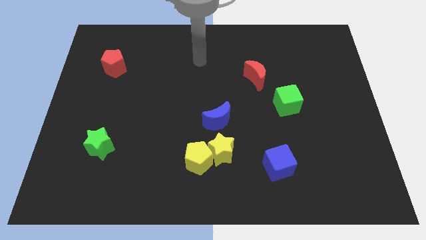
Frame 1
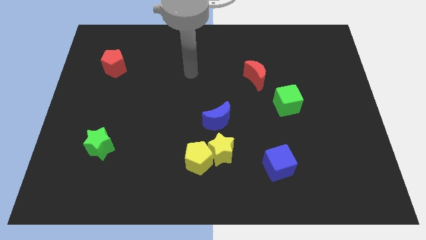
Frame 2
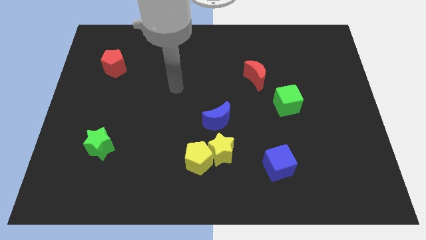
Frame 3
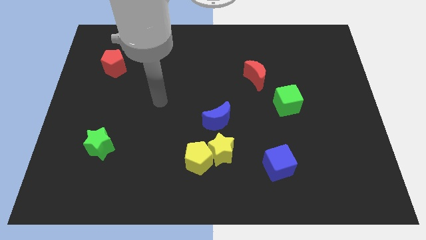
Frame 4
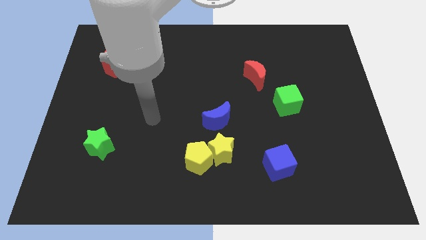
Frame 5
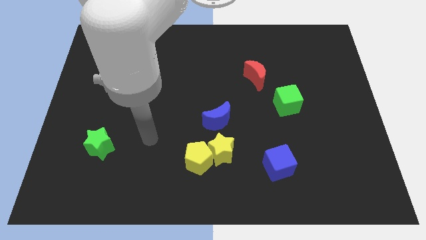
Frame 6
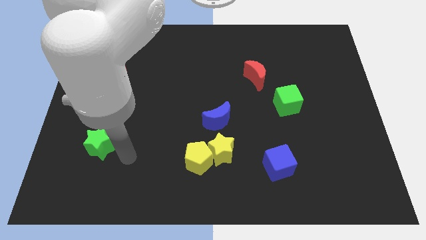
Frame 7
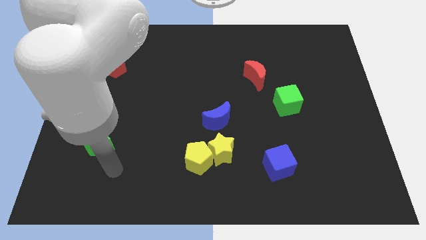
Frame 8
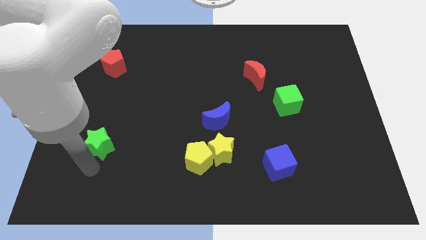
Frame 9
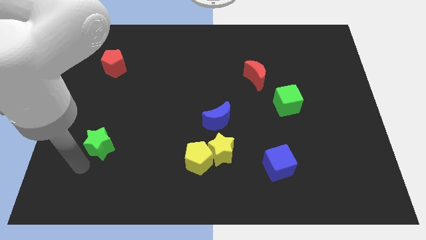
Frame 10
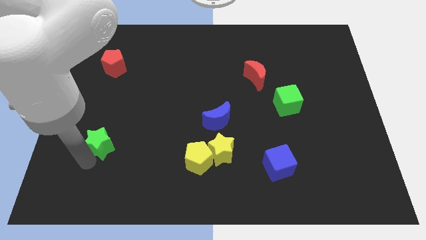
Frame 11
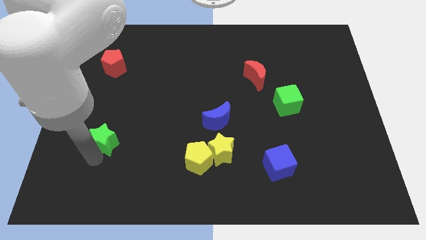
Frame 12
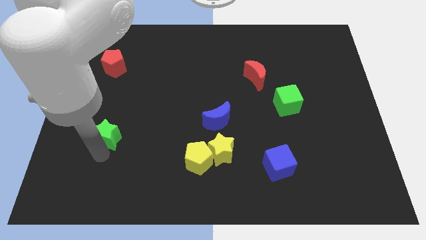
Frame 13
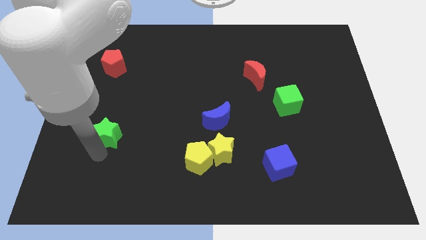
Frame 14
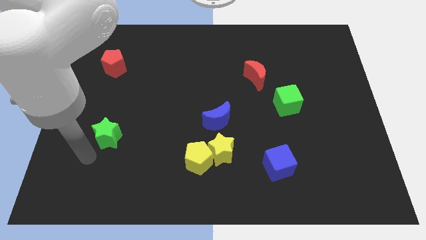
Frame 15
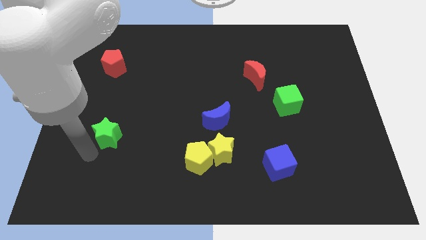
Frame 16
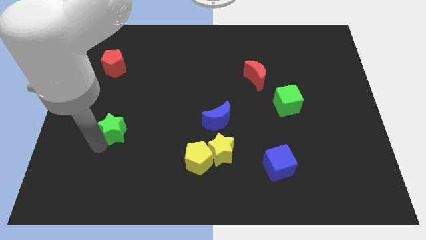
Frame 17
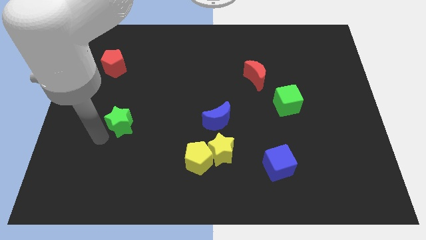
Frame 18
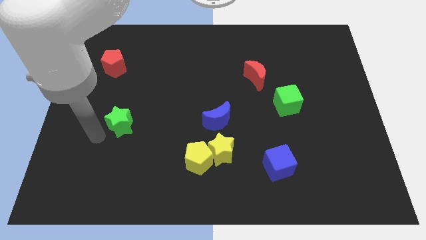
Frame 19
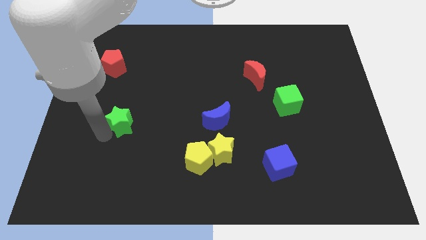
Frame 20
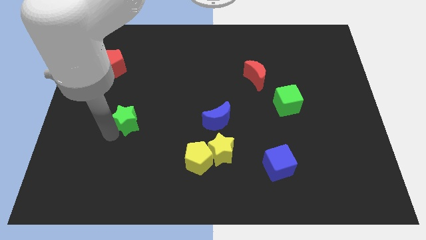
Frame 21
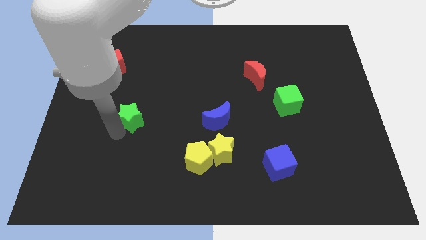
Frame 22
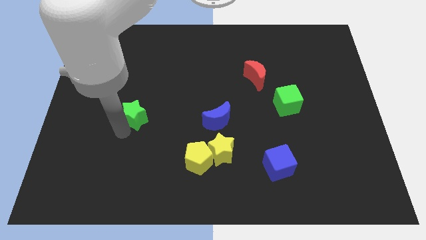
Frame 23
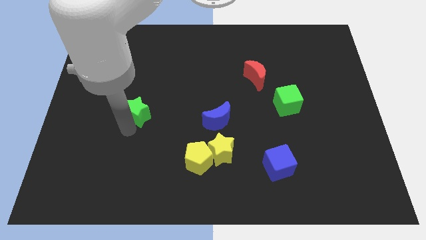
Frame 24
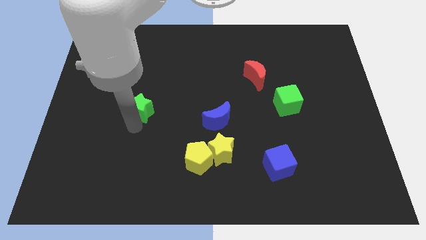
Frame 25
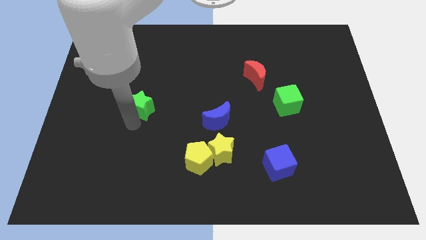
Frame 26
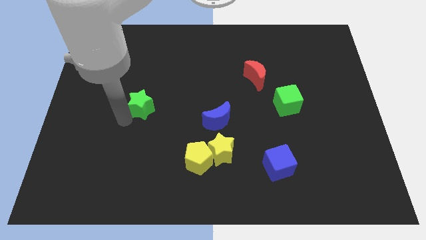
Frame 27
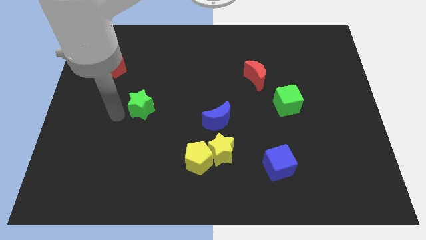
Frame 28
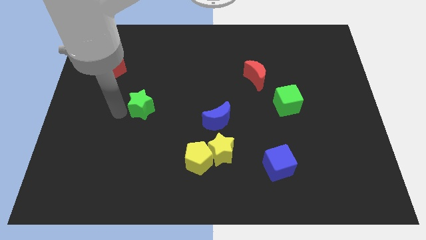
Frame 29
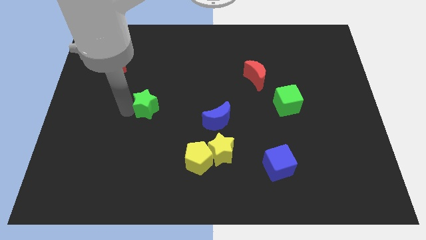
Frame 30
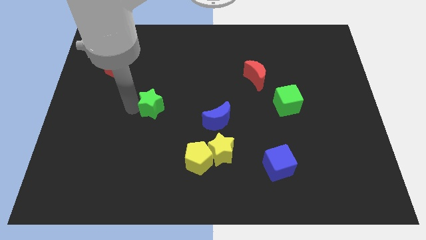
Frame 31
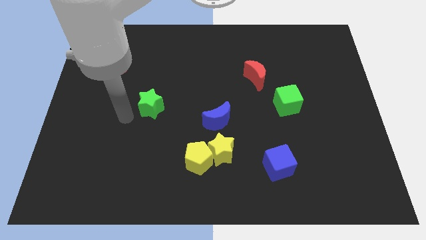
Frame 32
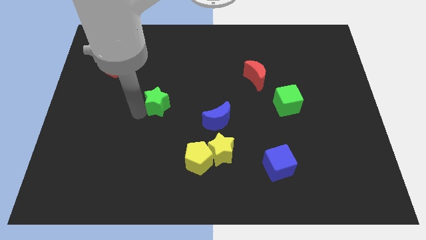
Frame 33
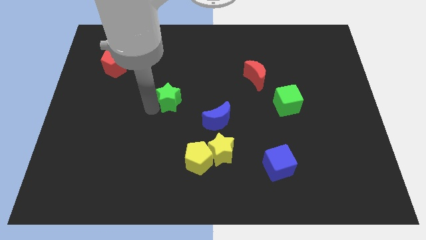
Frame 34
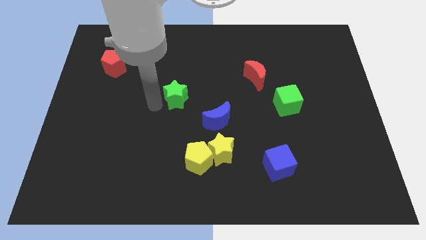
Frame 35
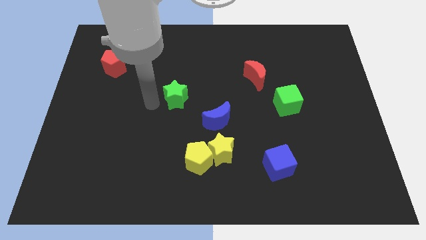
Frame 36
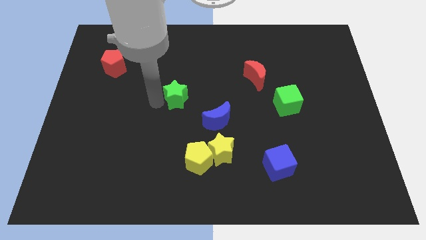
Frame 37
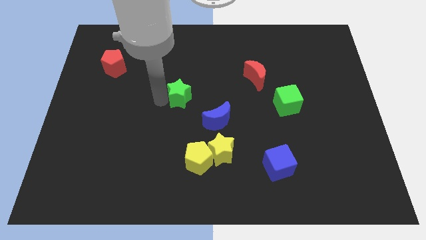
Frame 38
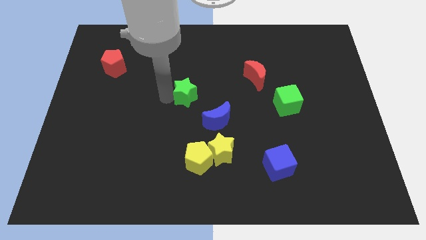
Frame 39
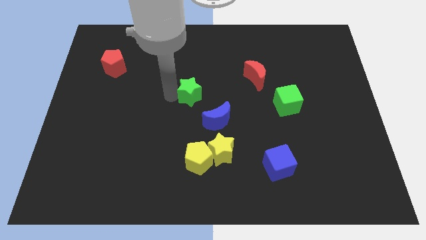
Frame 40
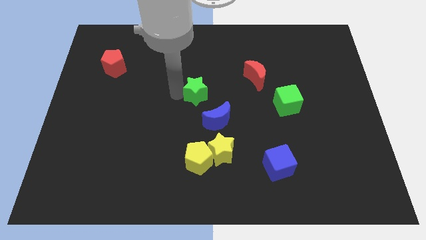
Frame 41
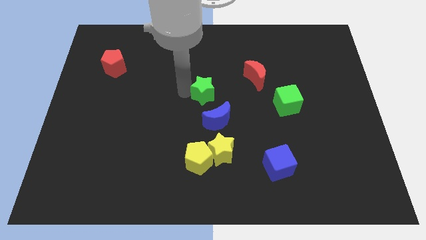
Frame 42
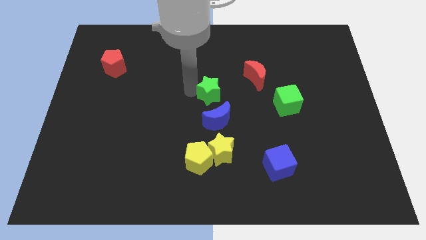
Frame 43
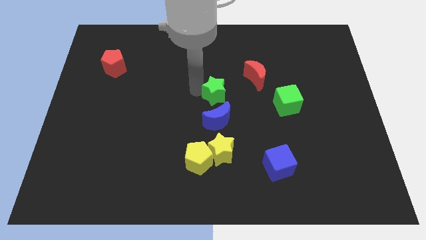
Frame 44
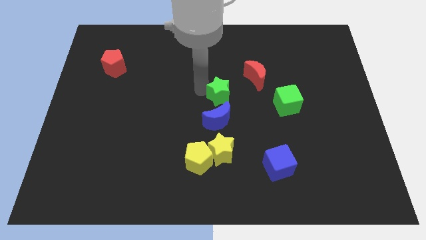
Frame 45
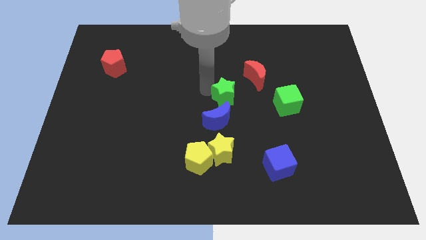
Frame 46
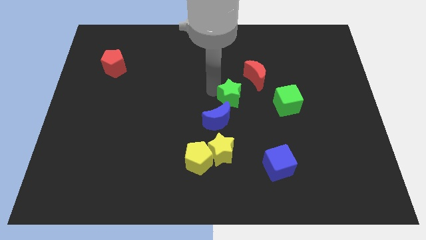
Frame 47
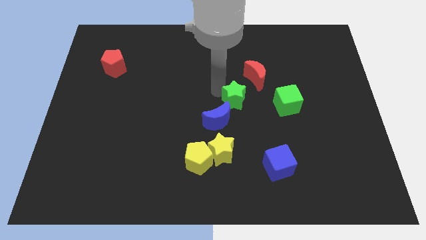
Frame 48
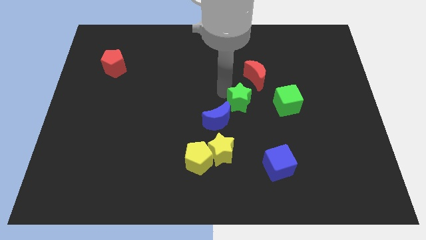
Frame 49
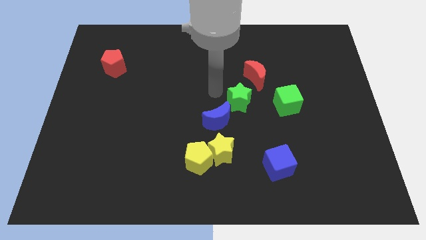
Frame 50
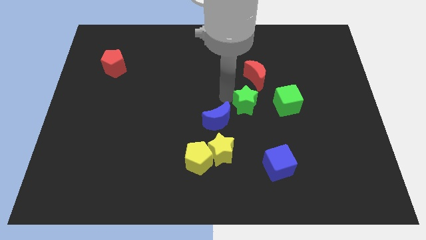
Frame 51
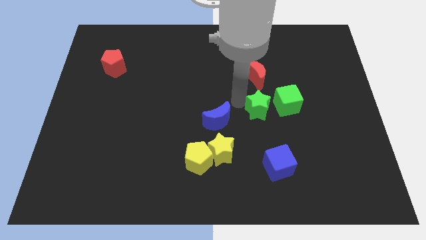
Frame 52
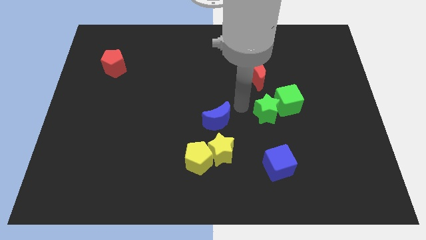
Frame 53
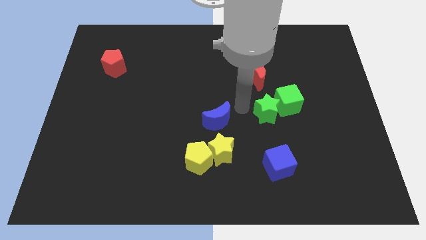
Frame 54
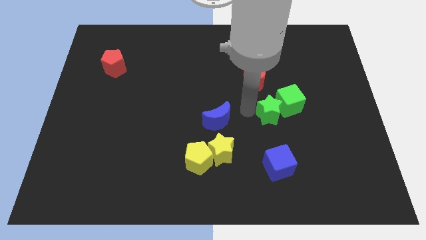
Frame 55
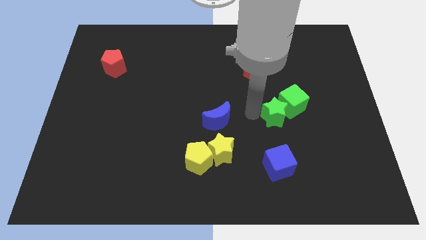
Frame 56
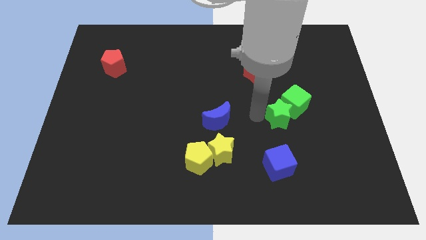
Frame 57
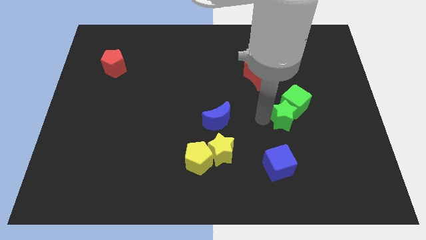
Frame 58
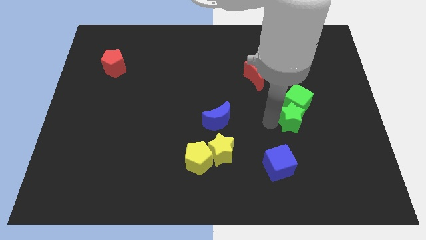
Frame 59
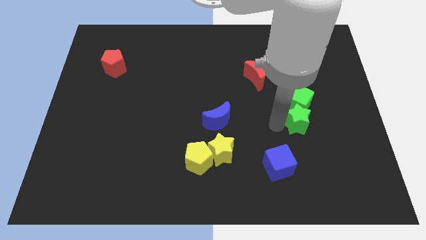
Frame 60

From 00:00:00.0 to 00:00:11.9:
move the green star diagonally down and to the right of the green cube

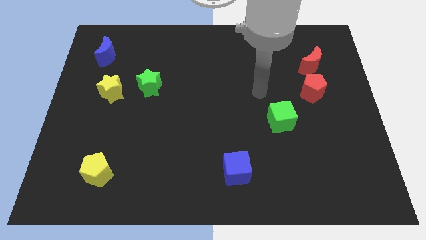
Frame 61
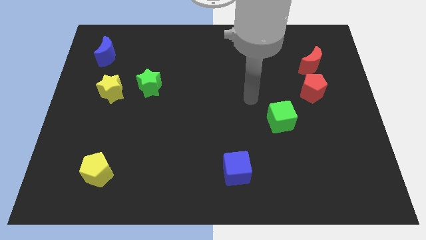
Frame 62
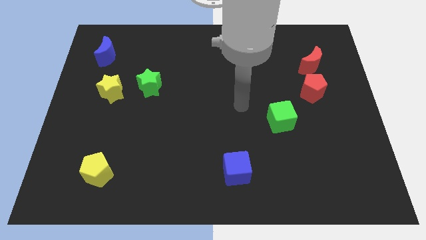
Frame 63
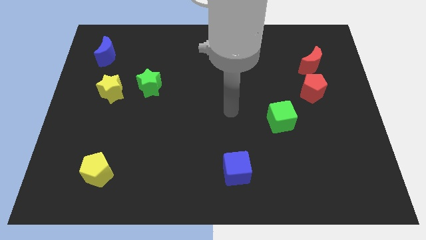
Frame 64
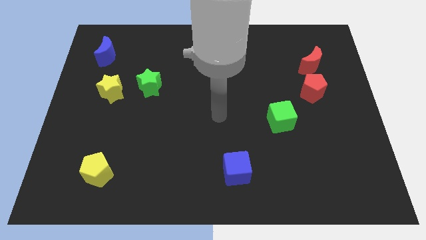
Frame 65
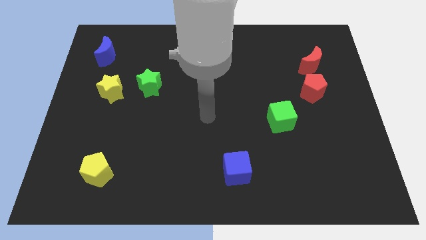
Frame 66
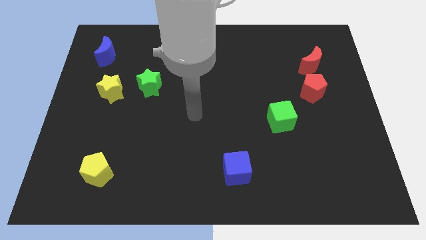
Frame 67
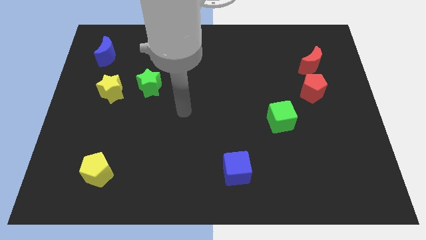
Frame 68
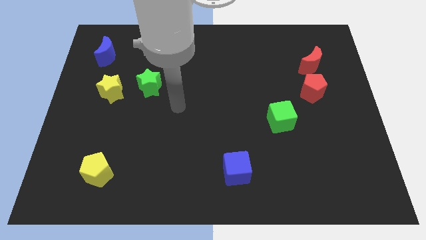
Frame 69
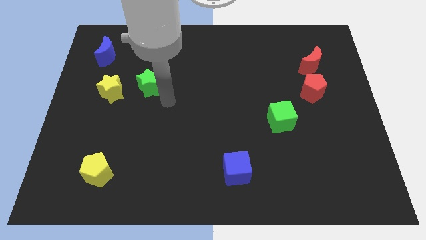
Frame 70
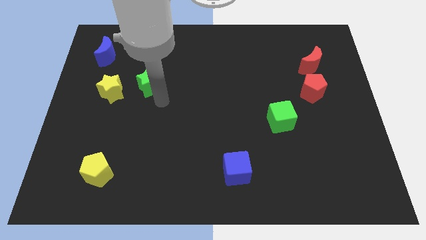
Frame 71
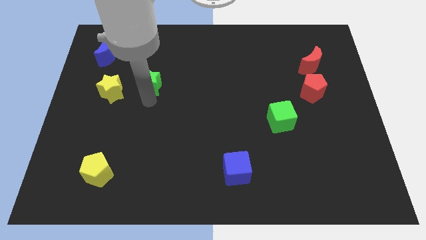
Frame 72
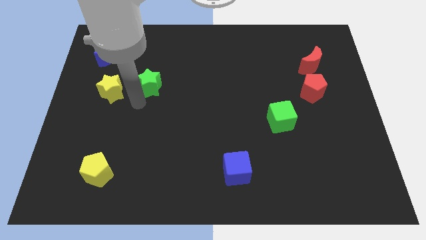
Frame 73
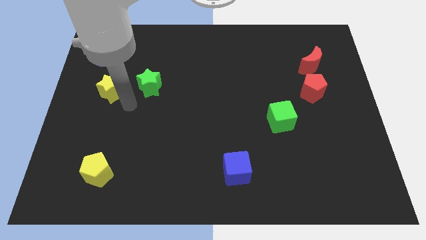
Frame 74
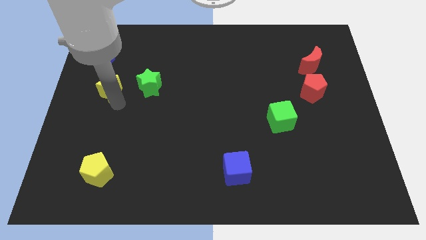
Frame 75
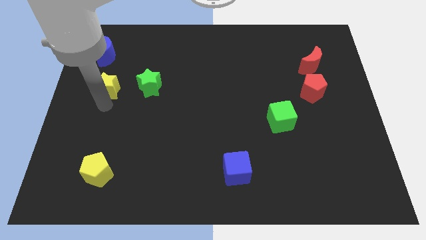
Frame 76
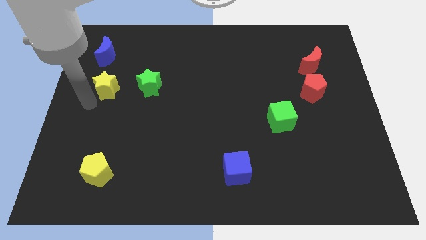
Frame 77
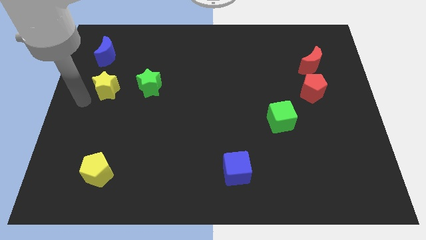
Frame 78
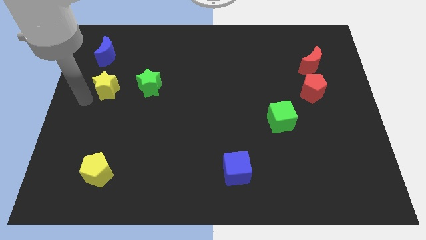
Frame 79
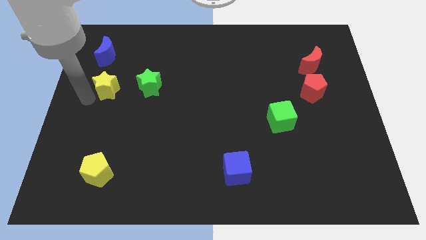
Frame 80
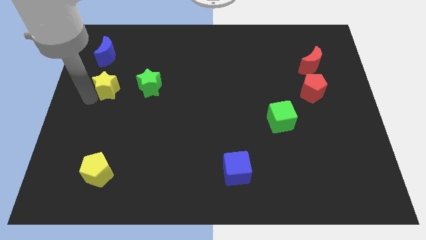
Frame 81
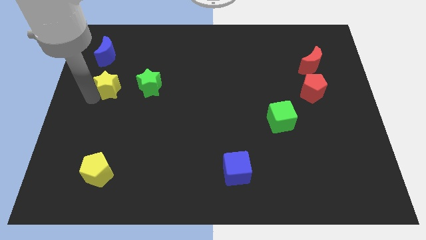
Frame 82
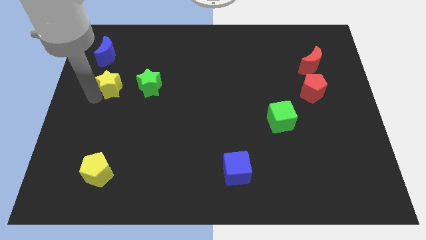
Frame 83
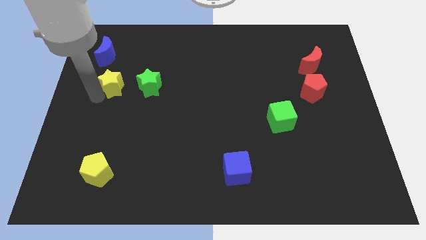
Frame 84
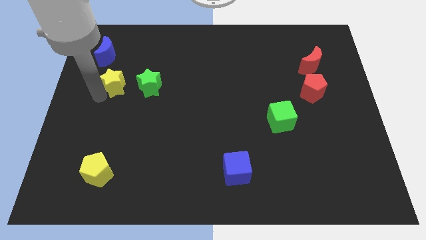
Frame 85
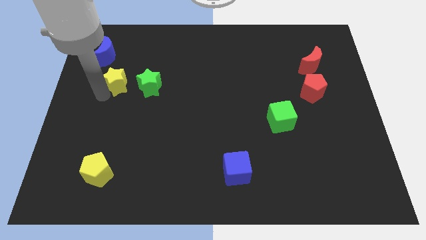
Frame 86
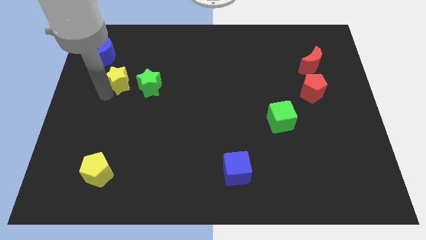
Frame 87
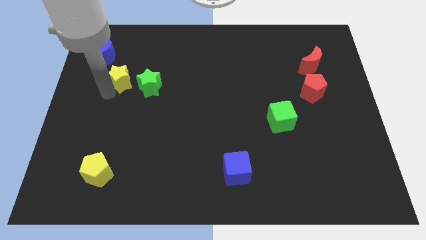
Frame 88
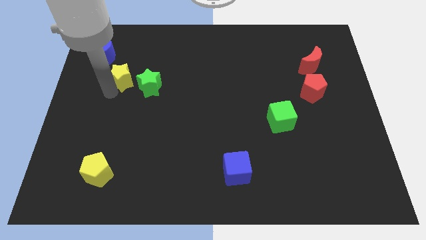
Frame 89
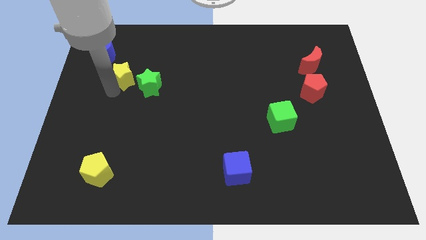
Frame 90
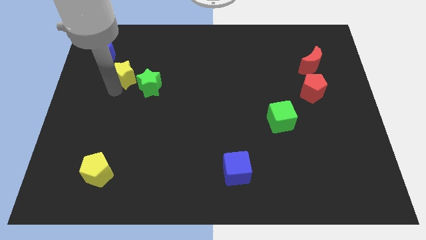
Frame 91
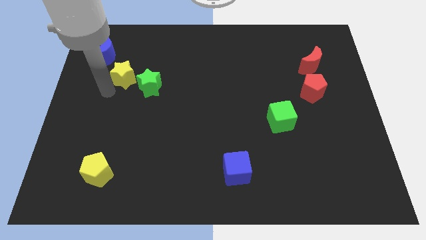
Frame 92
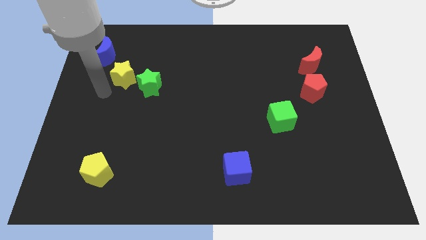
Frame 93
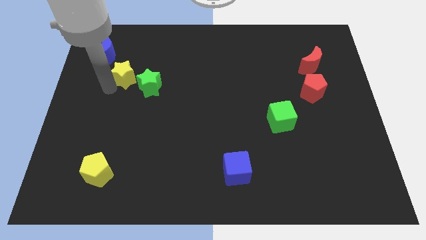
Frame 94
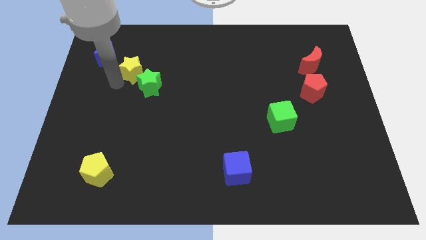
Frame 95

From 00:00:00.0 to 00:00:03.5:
push the yellow star above the green star
